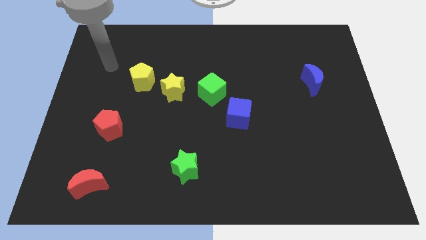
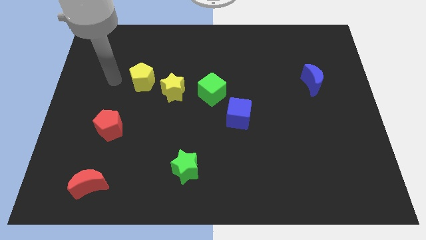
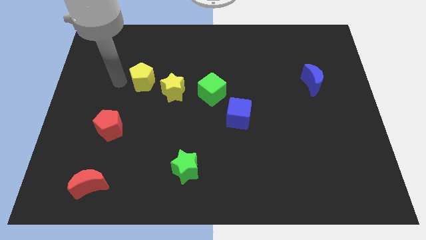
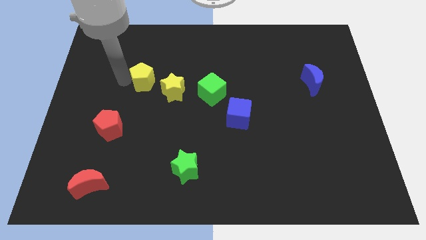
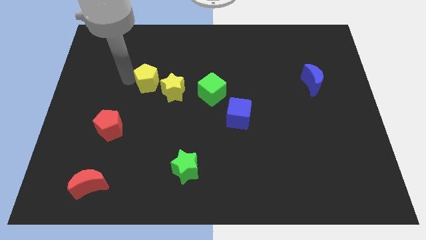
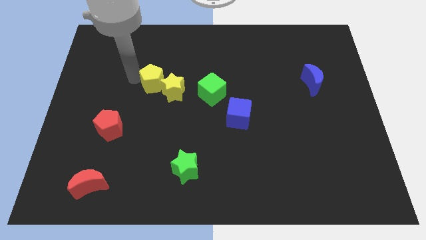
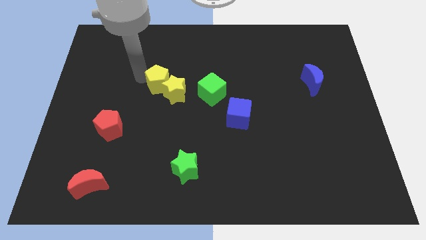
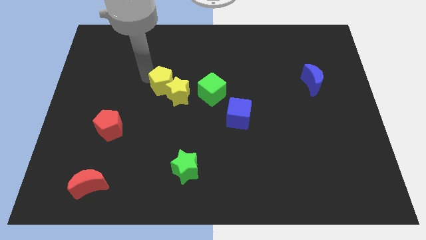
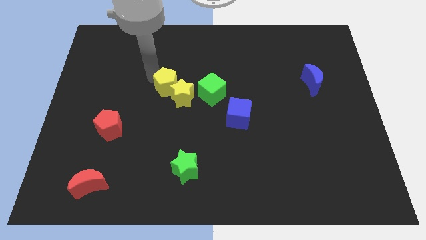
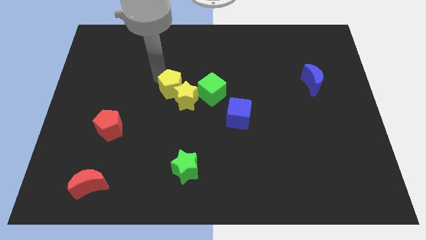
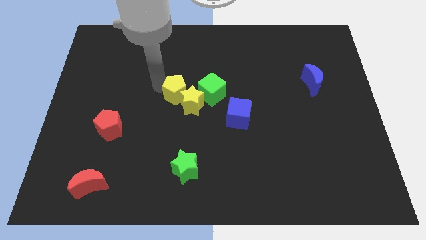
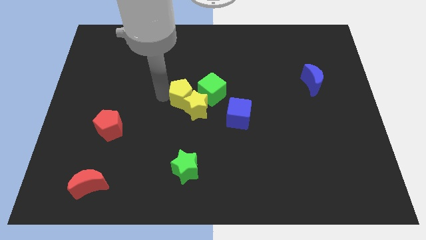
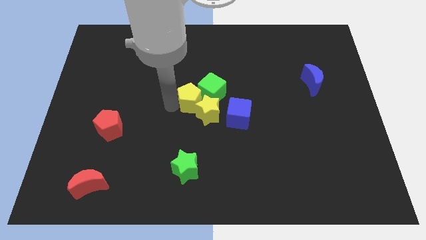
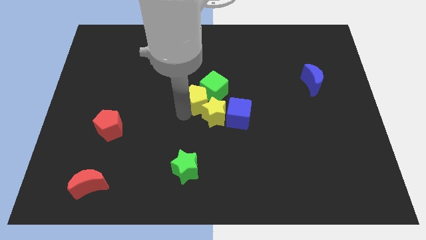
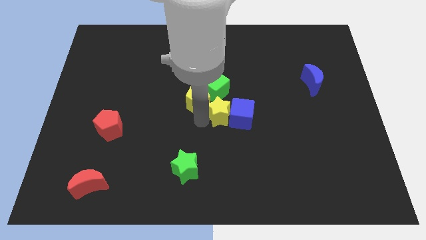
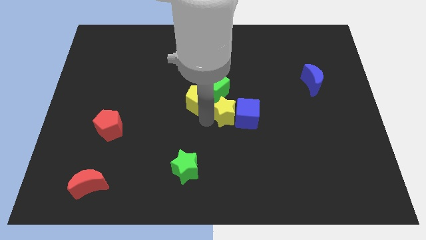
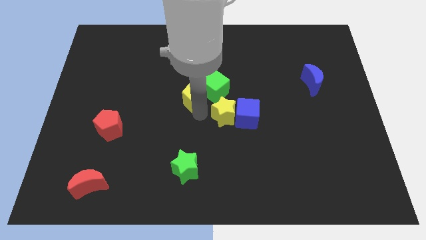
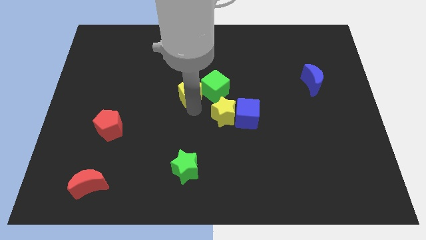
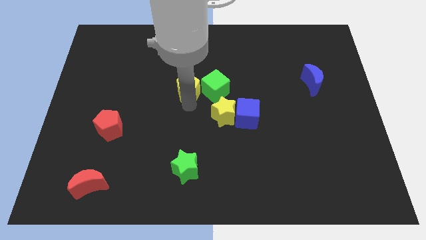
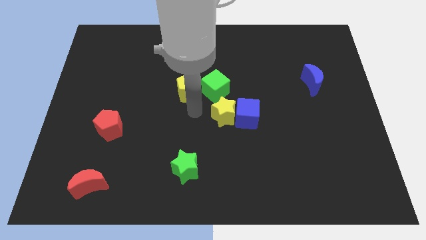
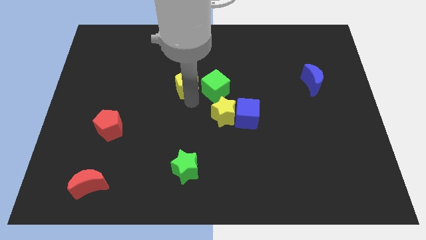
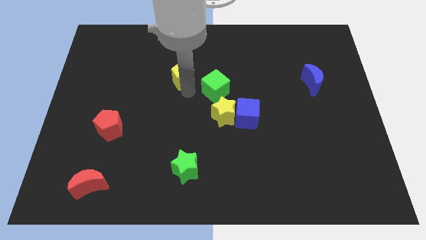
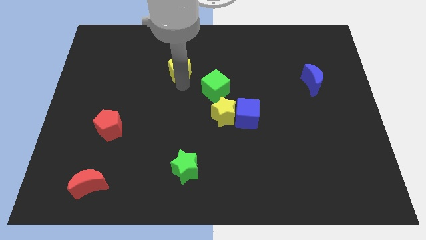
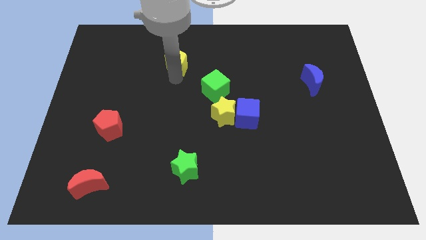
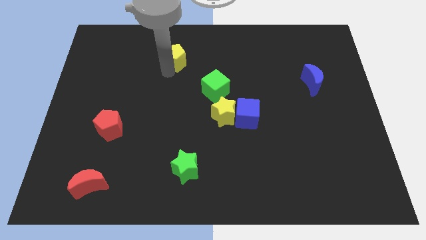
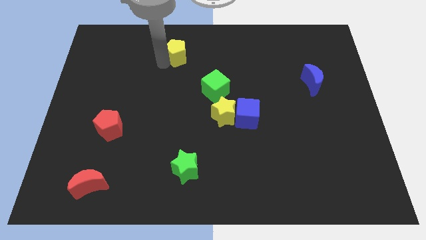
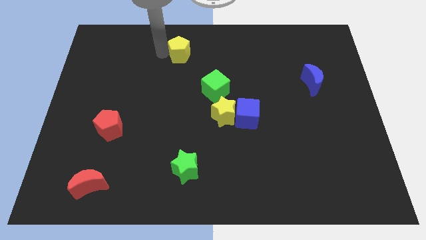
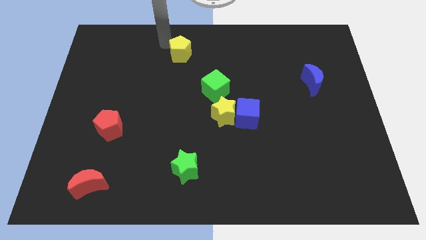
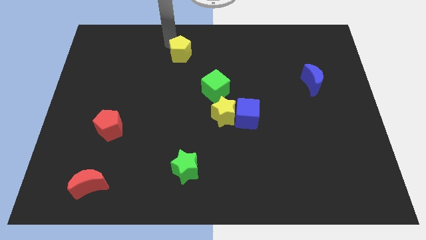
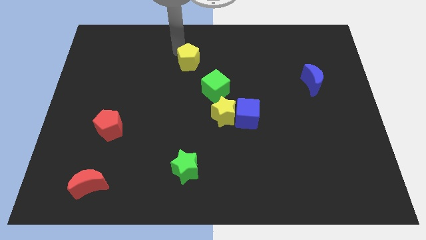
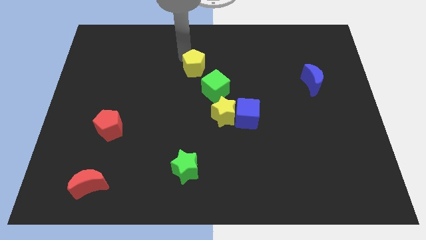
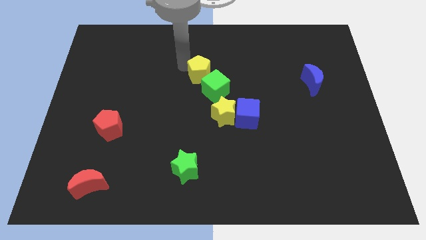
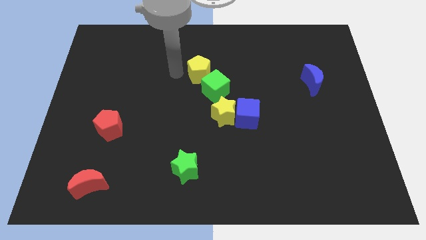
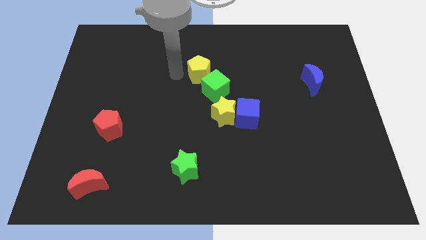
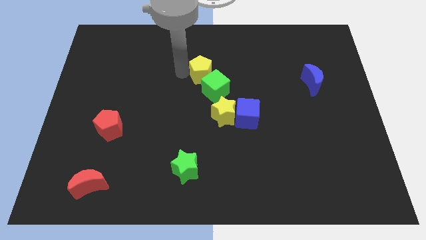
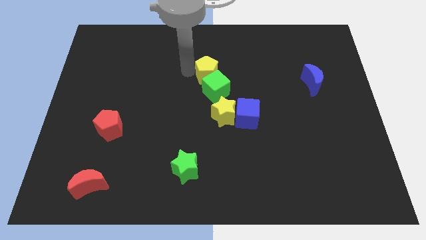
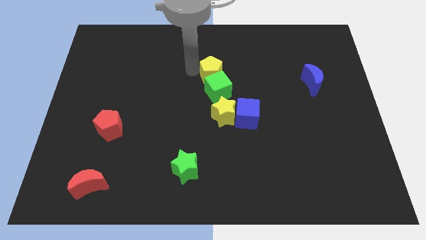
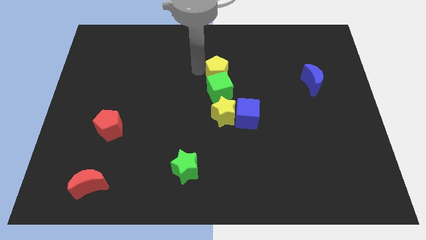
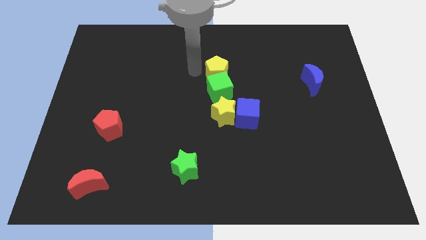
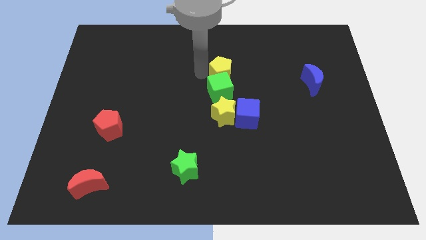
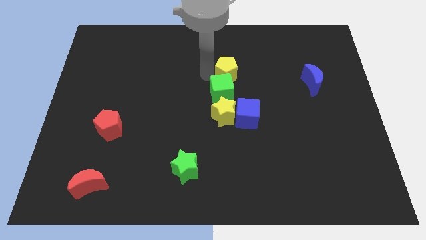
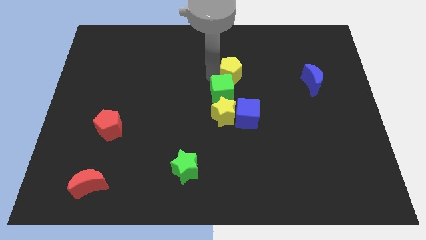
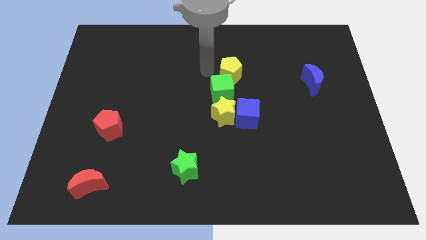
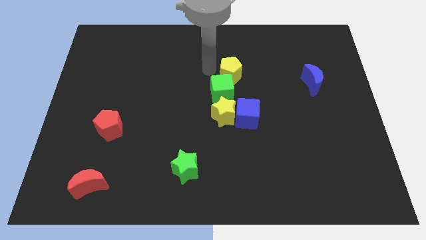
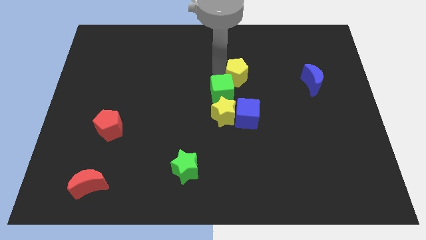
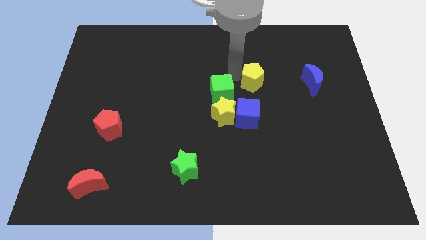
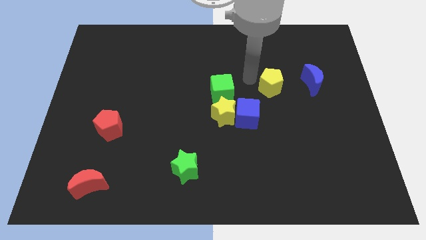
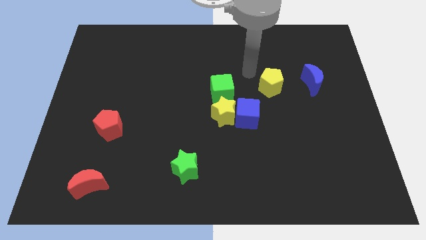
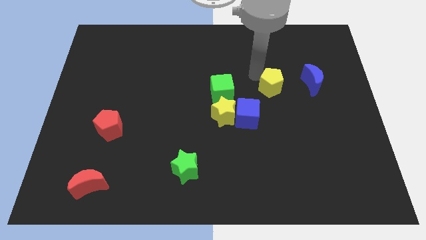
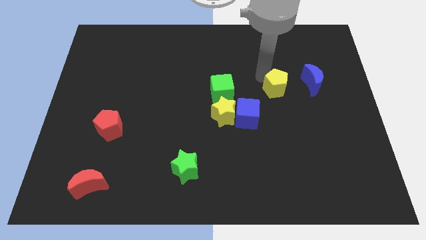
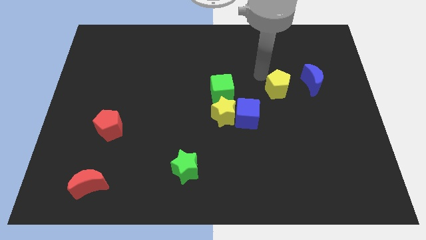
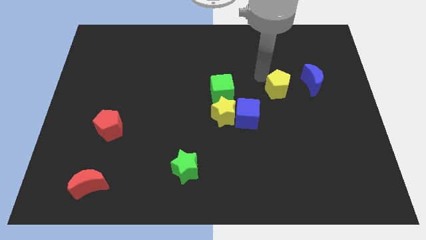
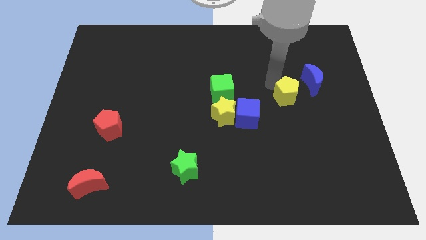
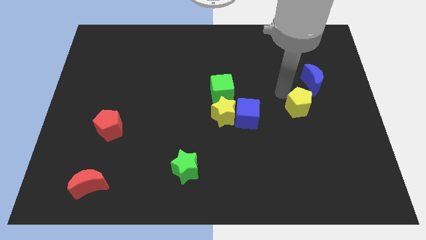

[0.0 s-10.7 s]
slide the yellow pentagon below the blue moon
